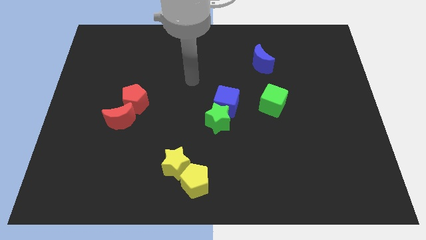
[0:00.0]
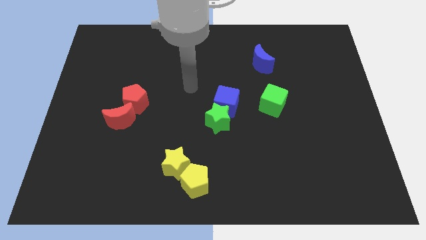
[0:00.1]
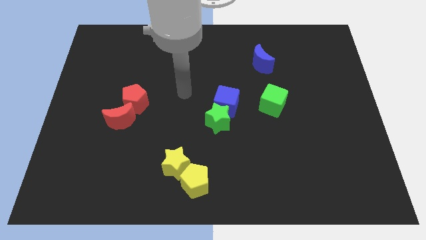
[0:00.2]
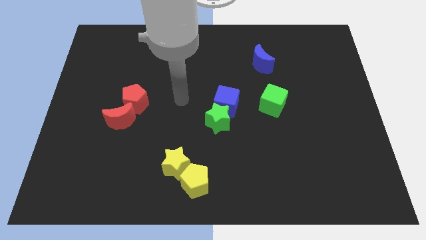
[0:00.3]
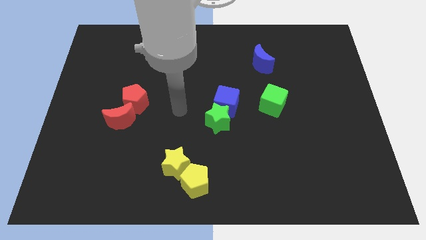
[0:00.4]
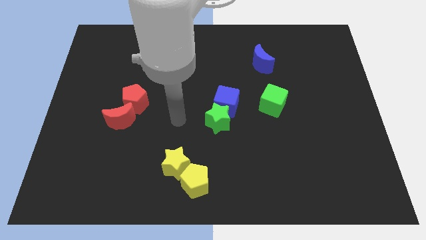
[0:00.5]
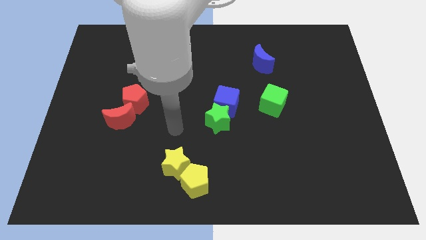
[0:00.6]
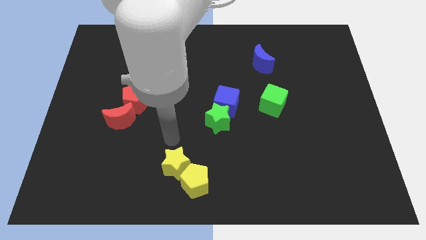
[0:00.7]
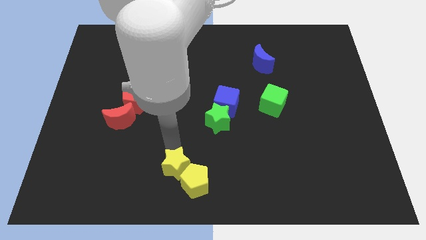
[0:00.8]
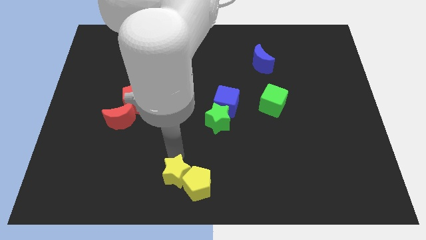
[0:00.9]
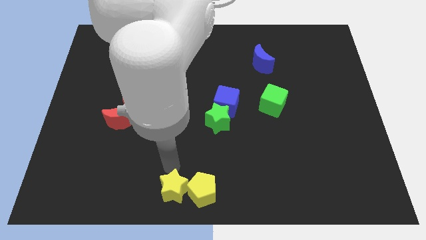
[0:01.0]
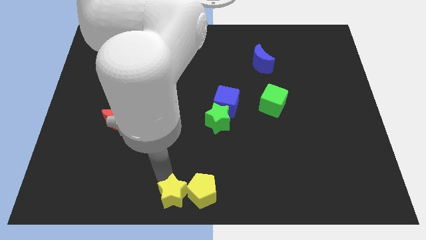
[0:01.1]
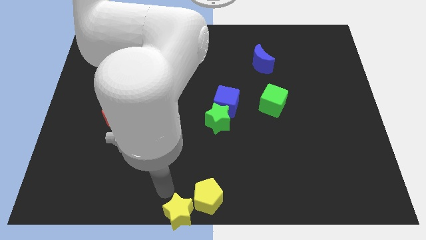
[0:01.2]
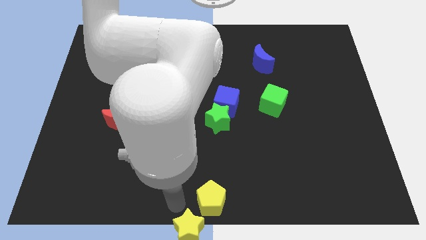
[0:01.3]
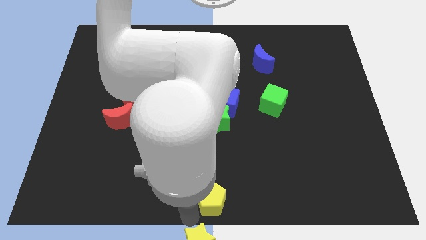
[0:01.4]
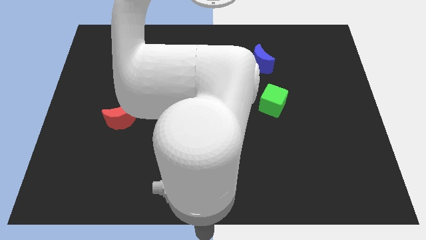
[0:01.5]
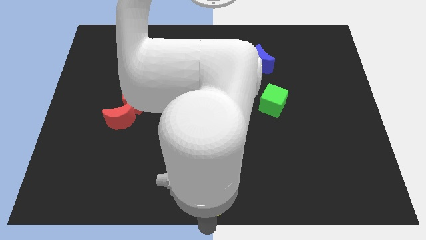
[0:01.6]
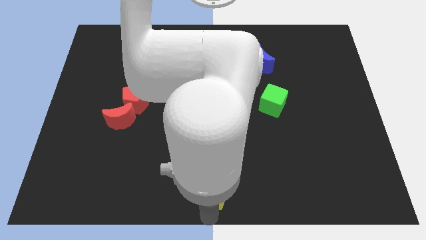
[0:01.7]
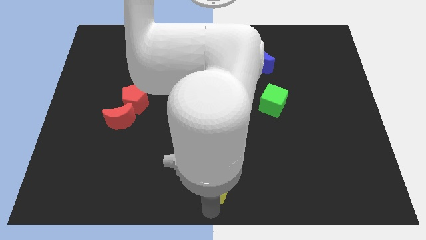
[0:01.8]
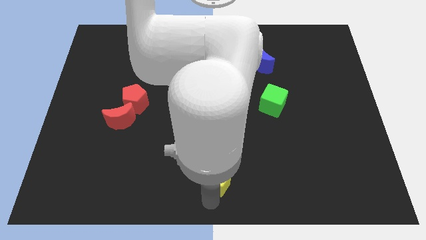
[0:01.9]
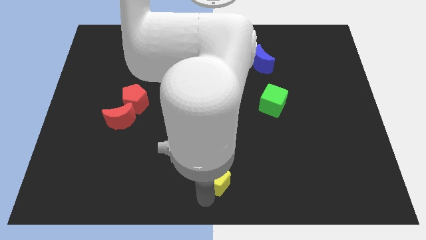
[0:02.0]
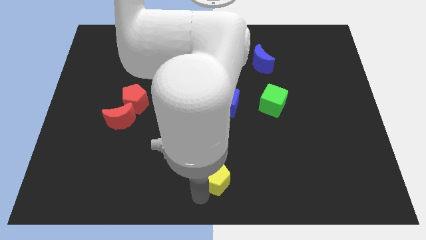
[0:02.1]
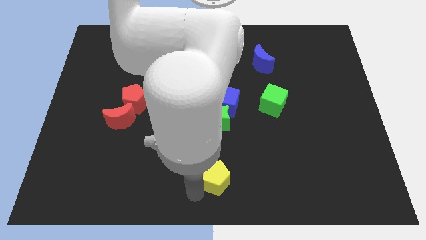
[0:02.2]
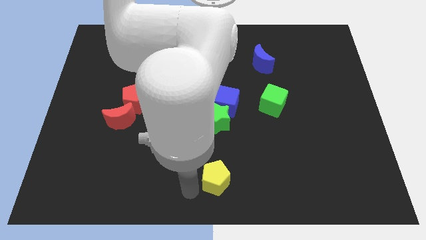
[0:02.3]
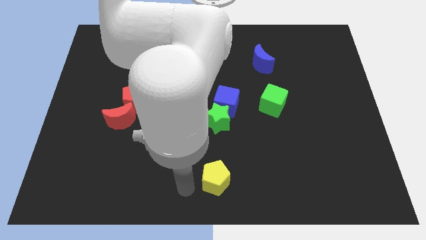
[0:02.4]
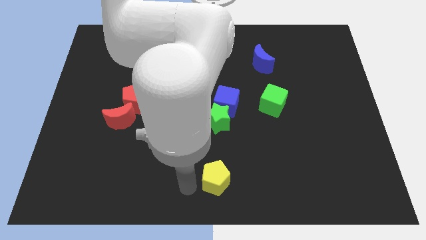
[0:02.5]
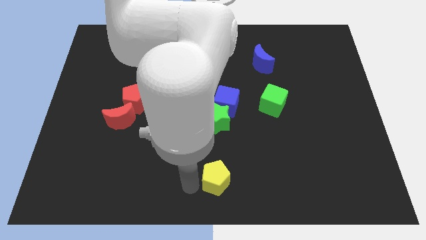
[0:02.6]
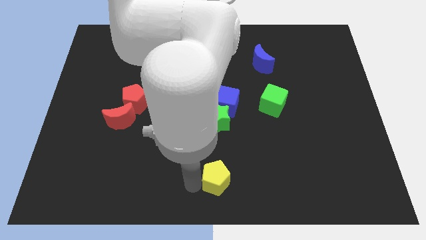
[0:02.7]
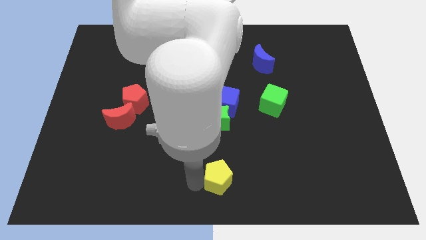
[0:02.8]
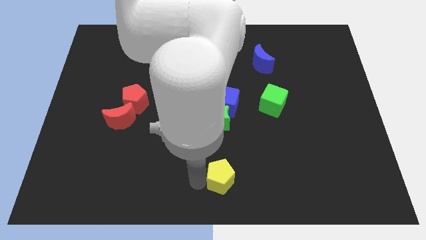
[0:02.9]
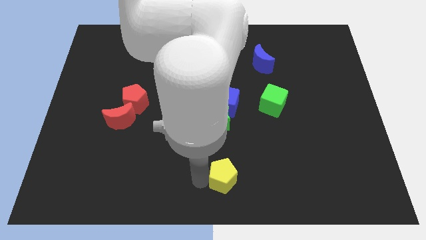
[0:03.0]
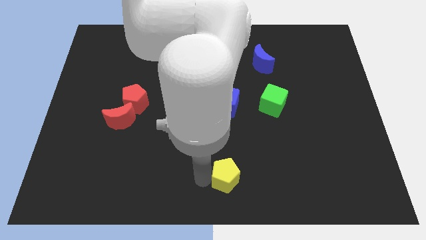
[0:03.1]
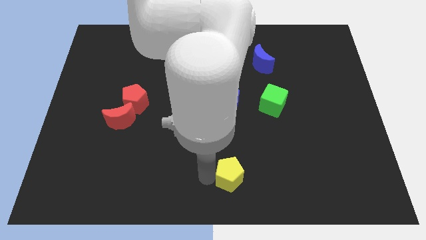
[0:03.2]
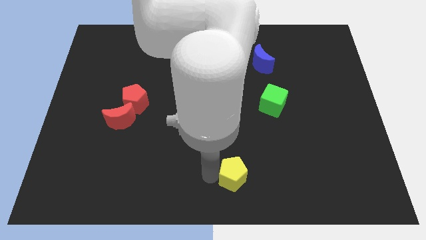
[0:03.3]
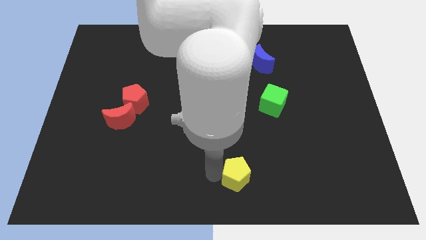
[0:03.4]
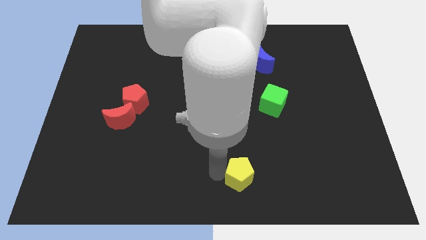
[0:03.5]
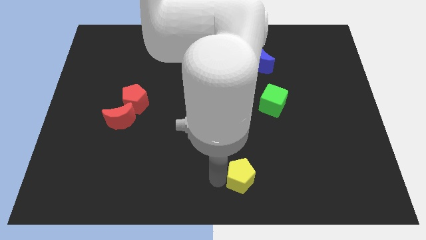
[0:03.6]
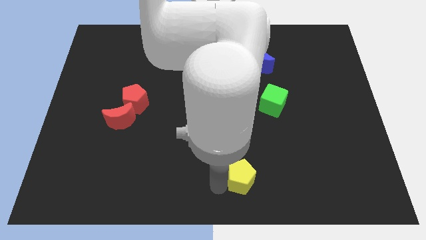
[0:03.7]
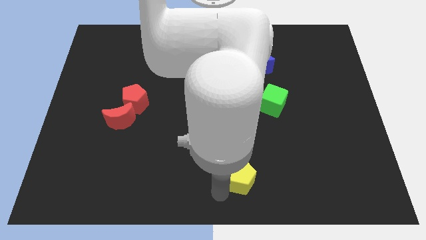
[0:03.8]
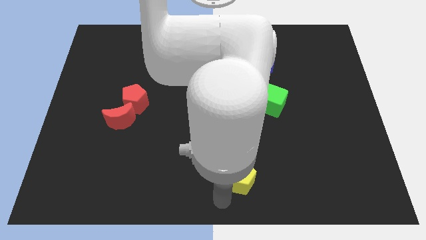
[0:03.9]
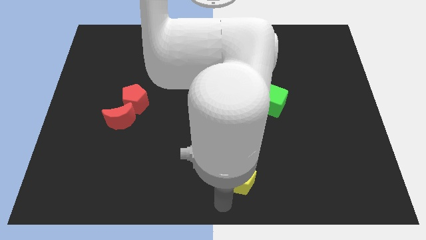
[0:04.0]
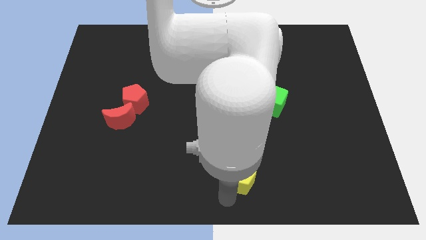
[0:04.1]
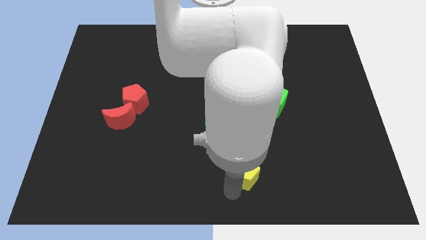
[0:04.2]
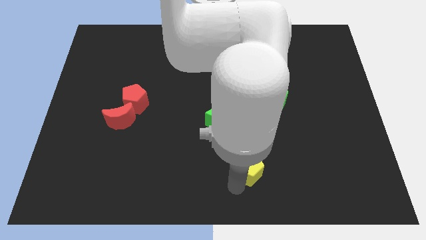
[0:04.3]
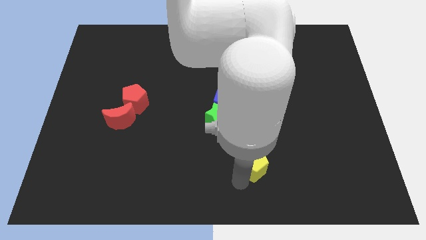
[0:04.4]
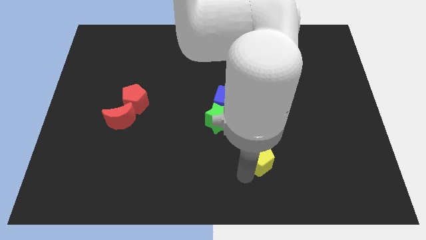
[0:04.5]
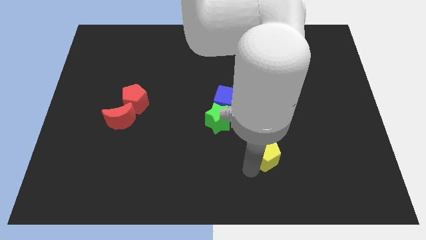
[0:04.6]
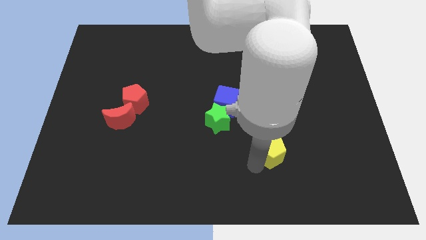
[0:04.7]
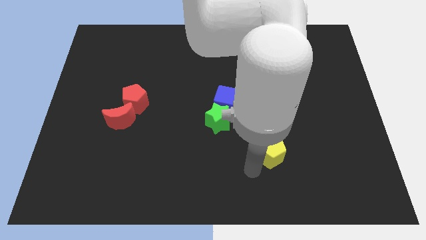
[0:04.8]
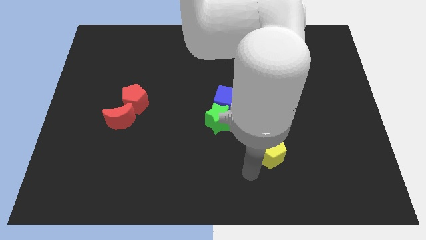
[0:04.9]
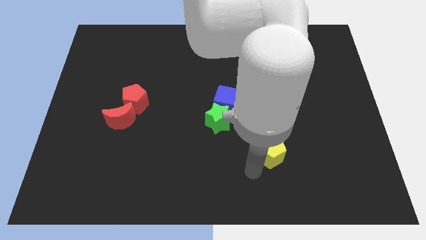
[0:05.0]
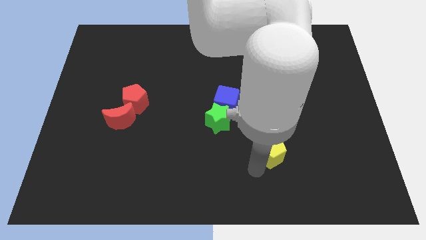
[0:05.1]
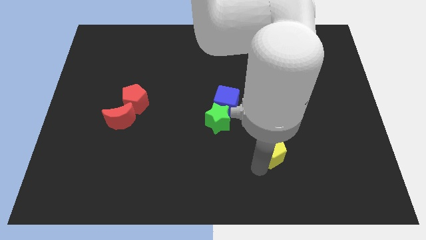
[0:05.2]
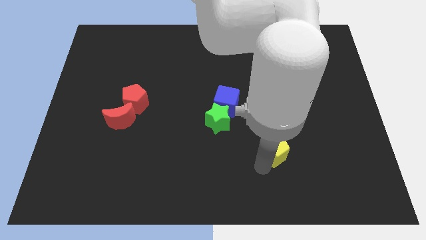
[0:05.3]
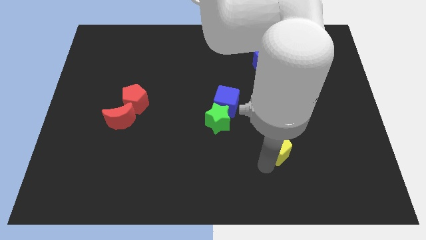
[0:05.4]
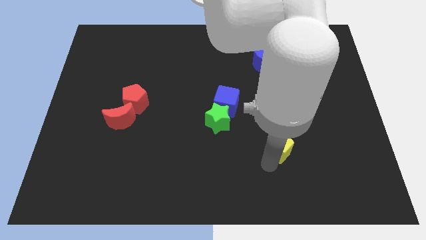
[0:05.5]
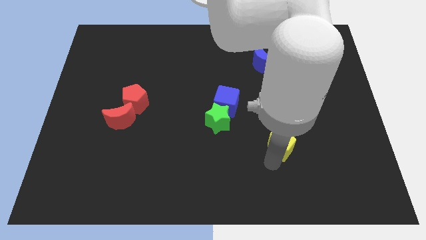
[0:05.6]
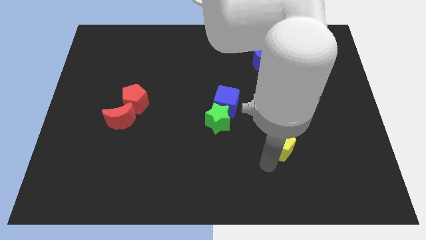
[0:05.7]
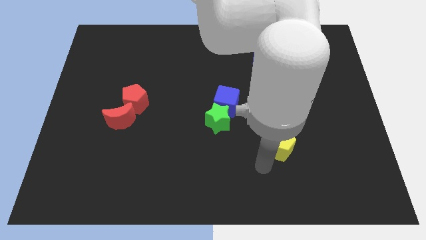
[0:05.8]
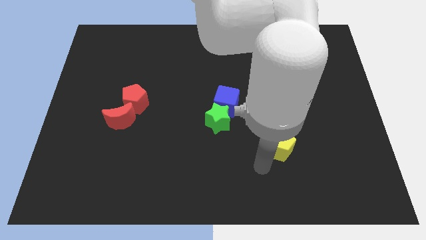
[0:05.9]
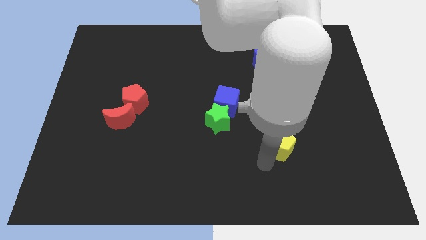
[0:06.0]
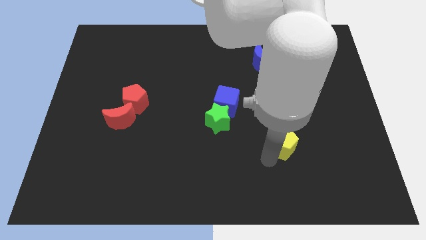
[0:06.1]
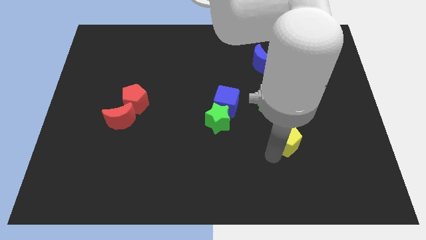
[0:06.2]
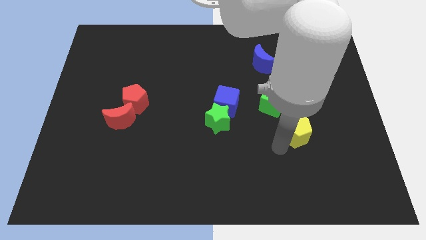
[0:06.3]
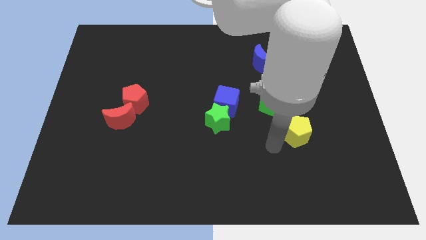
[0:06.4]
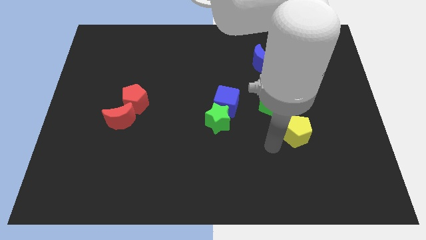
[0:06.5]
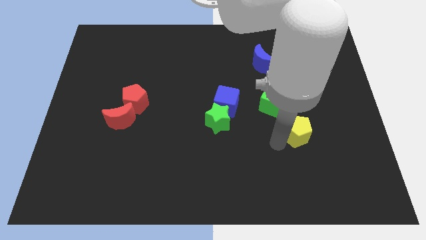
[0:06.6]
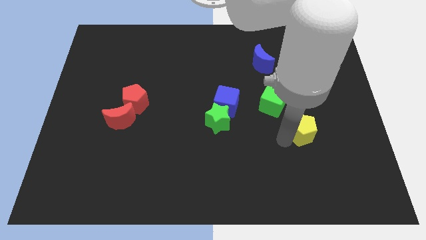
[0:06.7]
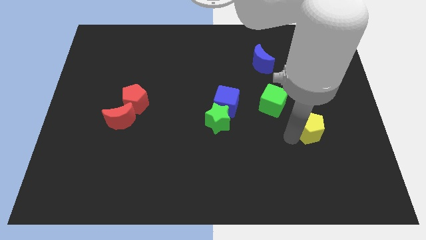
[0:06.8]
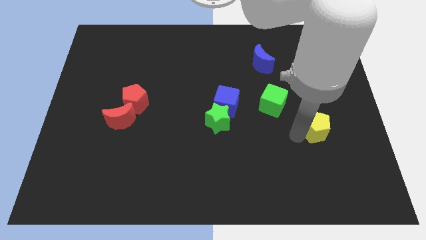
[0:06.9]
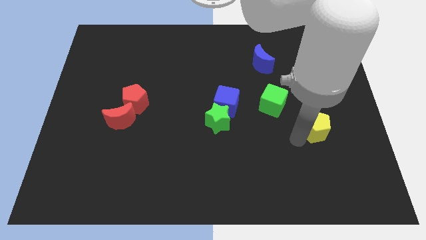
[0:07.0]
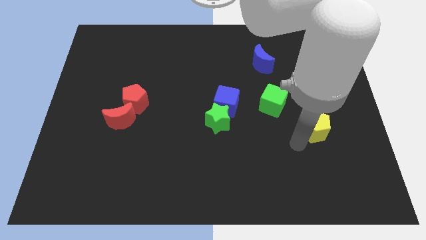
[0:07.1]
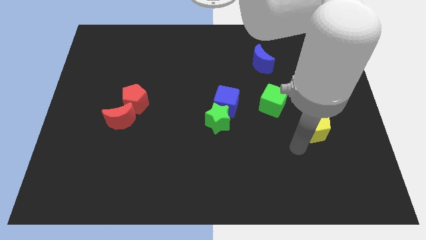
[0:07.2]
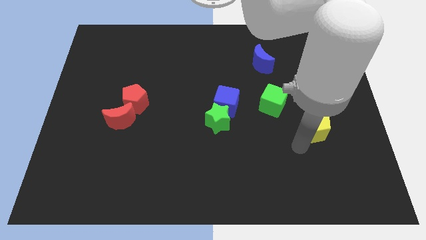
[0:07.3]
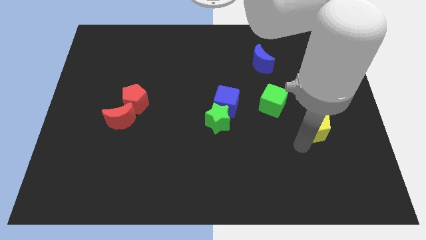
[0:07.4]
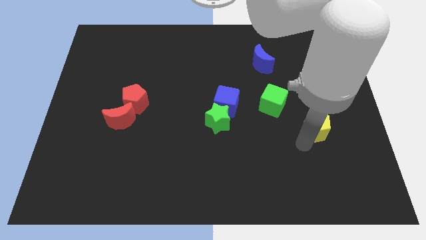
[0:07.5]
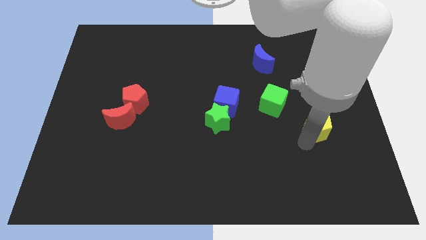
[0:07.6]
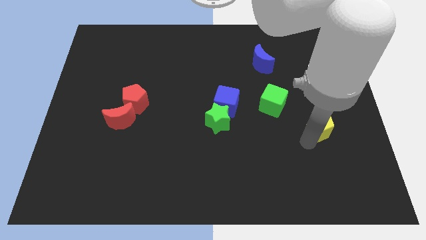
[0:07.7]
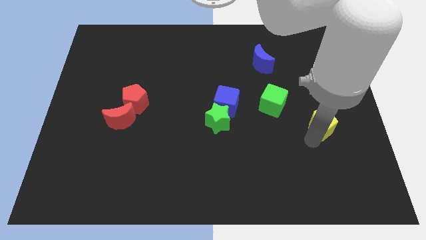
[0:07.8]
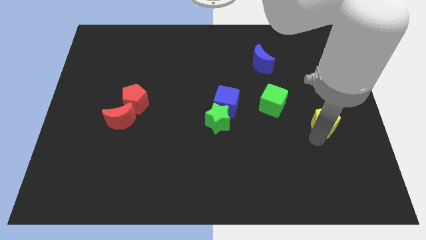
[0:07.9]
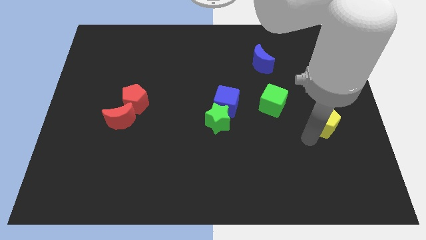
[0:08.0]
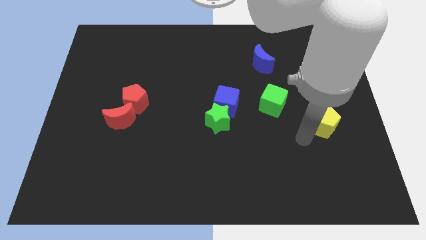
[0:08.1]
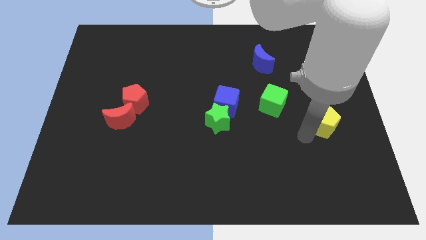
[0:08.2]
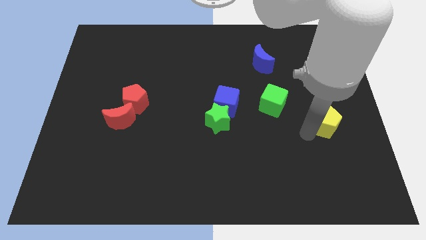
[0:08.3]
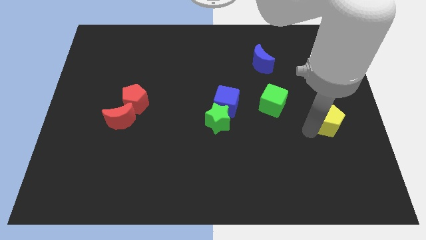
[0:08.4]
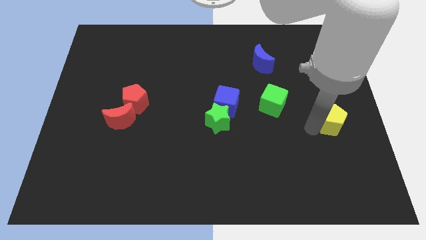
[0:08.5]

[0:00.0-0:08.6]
put the yellow pentagon to the center right
